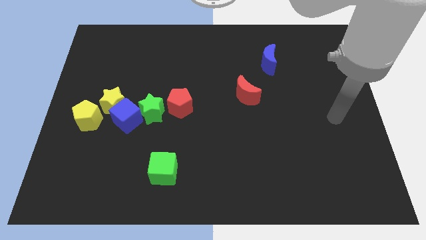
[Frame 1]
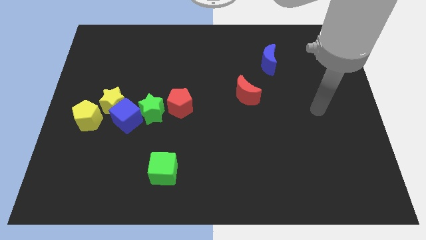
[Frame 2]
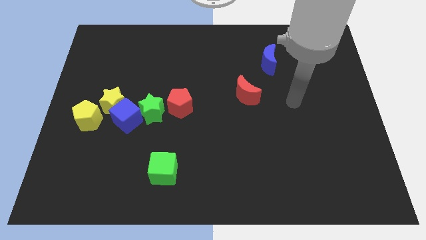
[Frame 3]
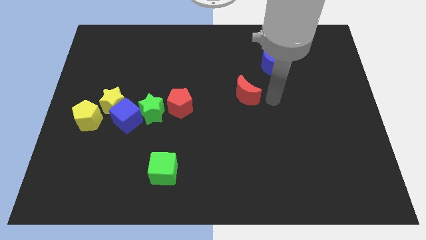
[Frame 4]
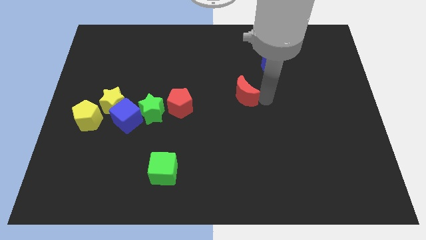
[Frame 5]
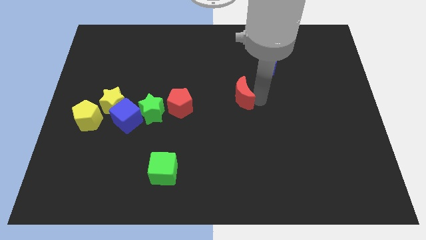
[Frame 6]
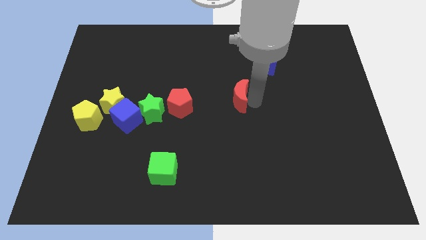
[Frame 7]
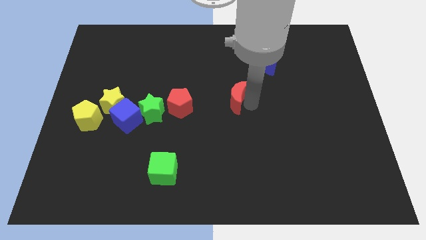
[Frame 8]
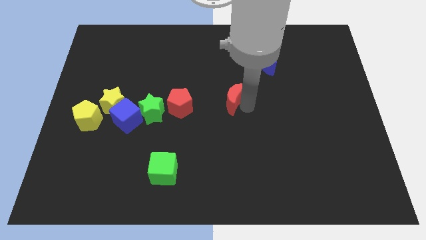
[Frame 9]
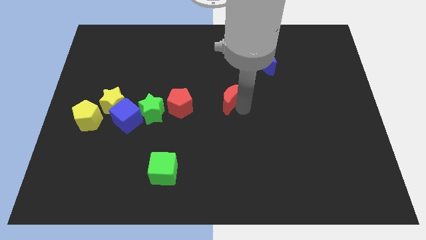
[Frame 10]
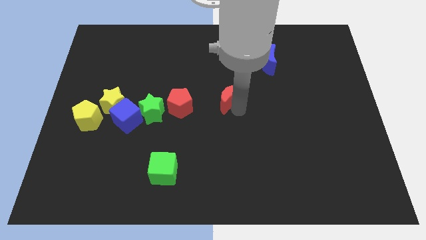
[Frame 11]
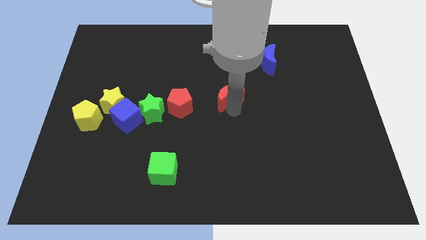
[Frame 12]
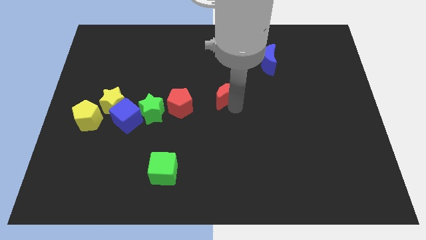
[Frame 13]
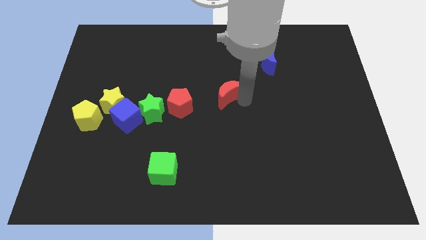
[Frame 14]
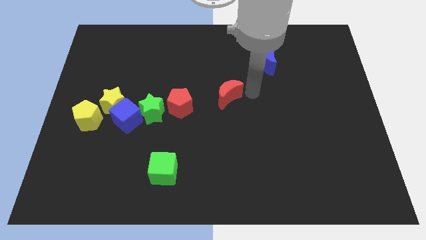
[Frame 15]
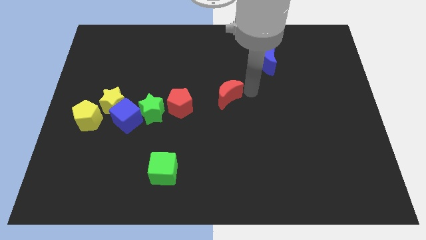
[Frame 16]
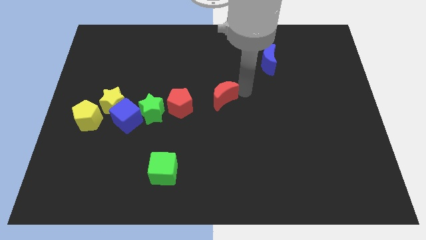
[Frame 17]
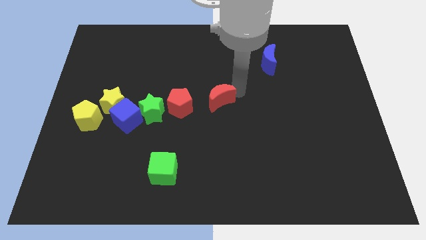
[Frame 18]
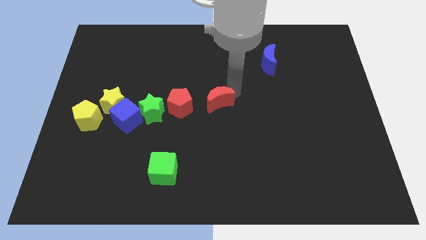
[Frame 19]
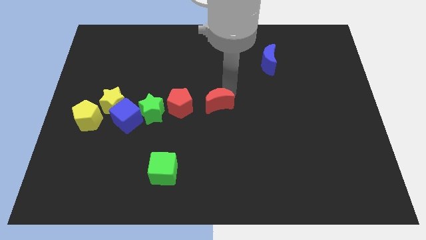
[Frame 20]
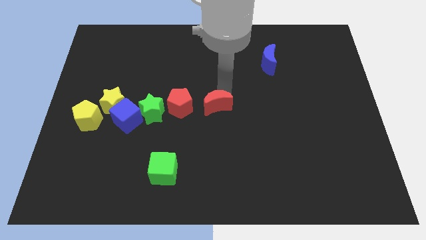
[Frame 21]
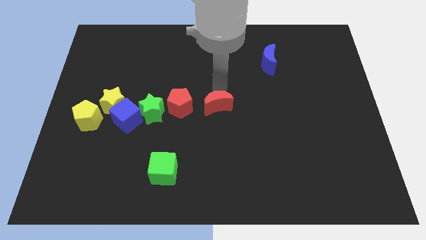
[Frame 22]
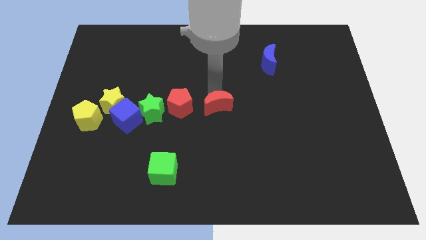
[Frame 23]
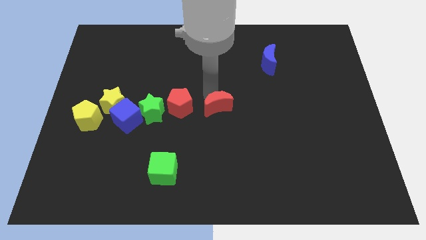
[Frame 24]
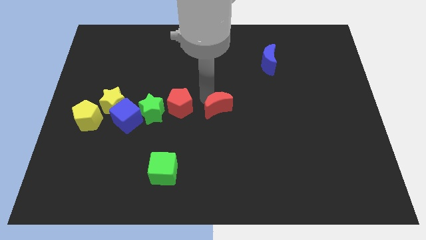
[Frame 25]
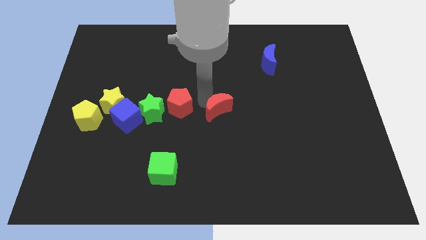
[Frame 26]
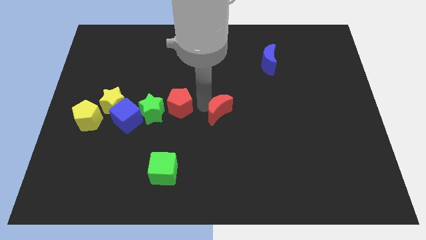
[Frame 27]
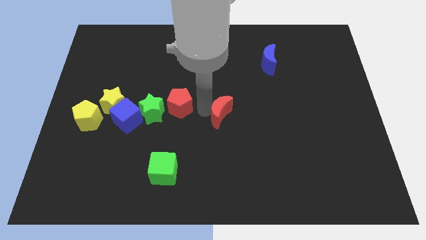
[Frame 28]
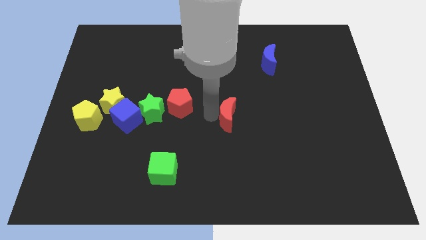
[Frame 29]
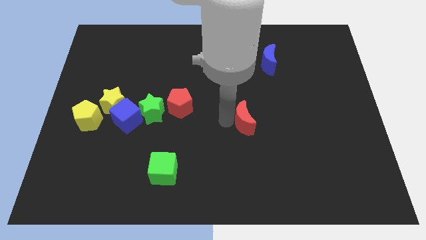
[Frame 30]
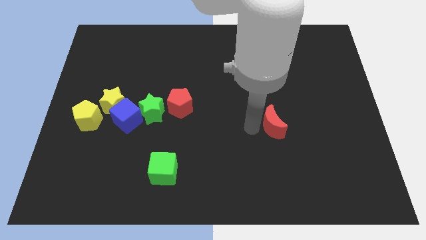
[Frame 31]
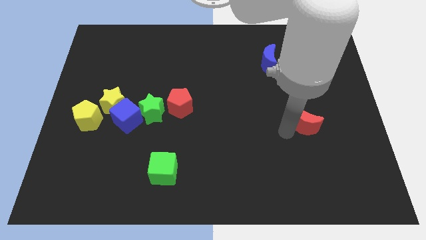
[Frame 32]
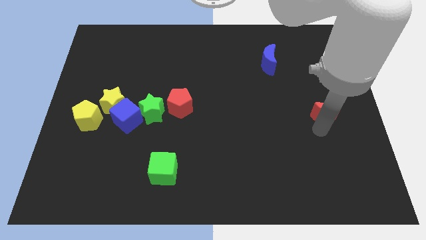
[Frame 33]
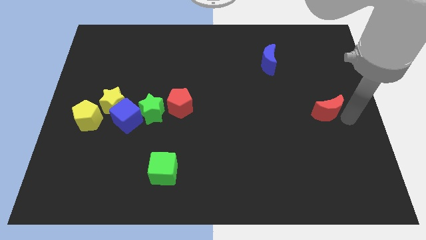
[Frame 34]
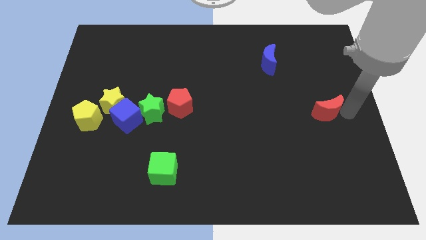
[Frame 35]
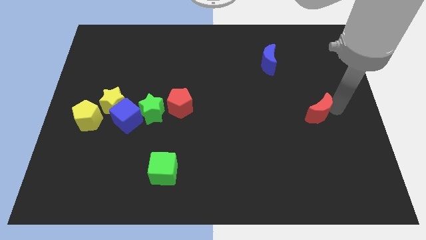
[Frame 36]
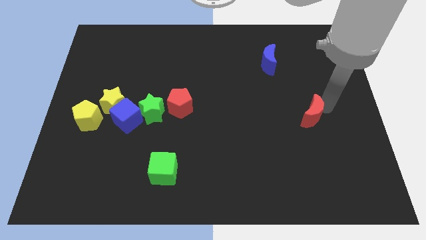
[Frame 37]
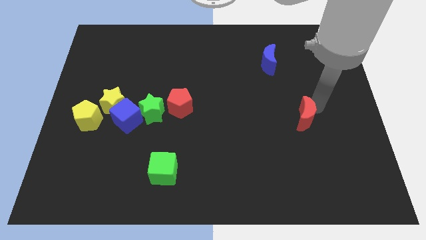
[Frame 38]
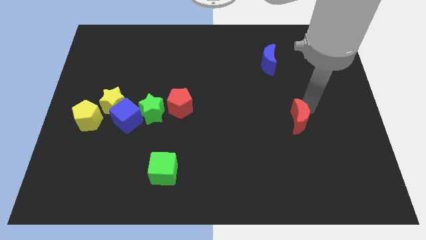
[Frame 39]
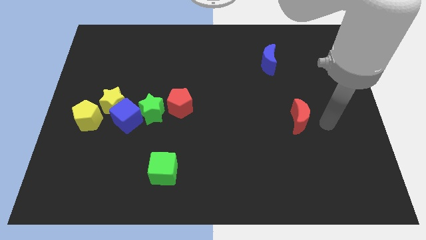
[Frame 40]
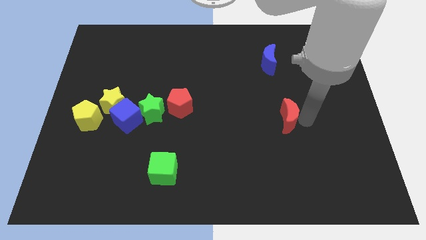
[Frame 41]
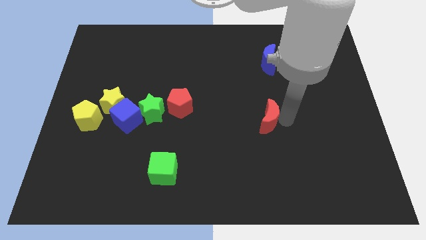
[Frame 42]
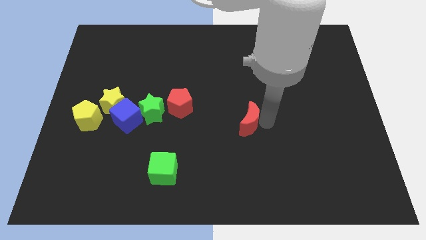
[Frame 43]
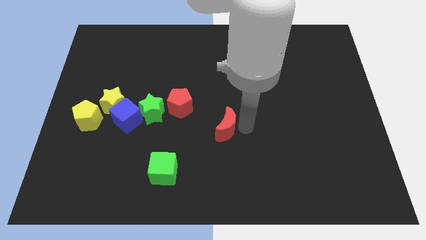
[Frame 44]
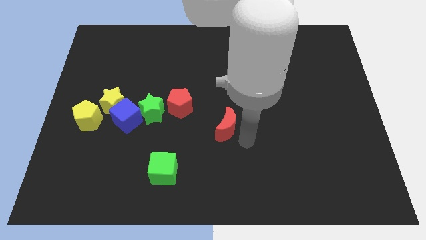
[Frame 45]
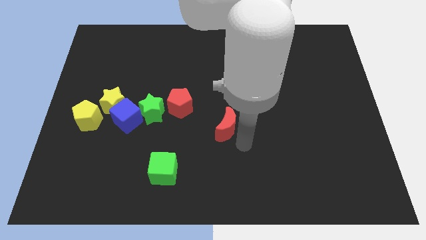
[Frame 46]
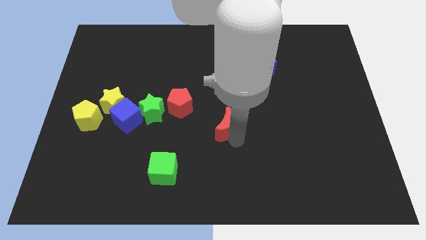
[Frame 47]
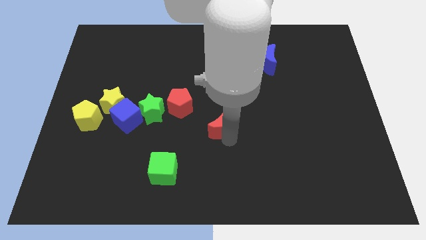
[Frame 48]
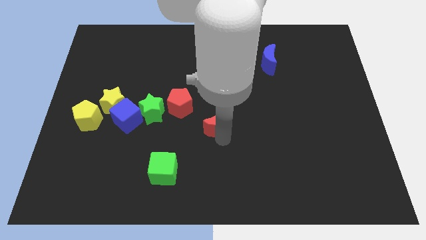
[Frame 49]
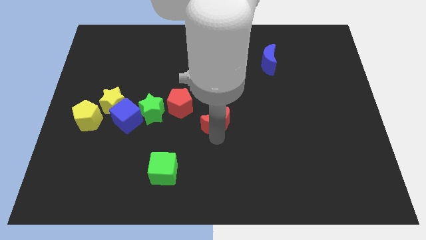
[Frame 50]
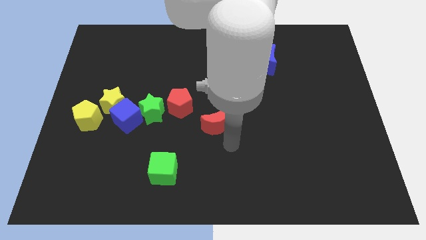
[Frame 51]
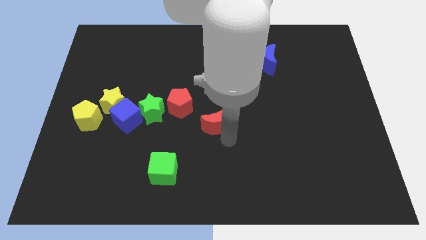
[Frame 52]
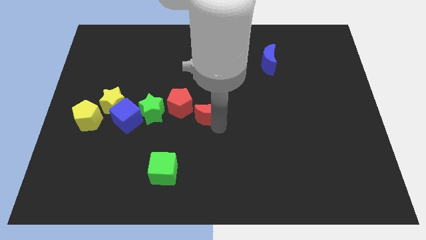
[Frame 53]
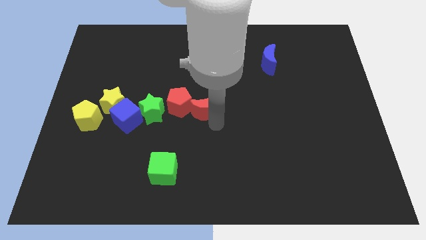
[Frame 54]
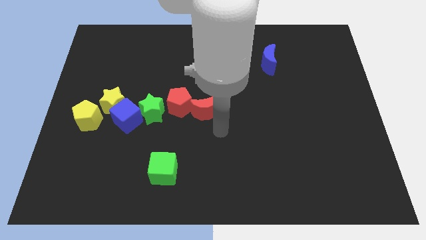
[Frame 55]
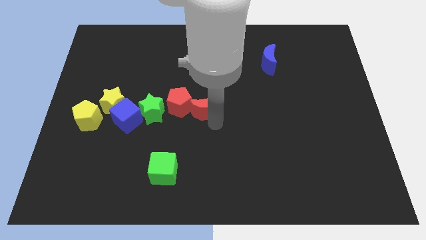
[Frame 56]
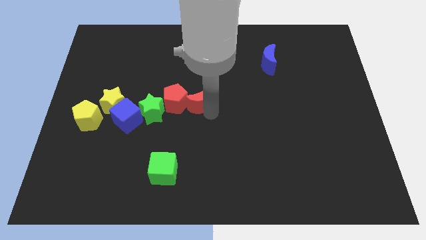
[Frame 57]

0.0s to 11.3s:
push the red moon close to the red pentagon

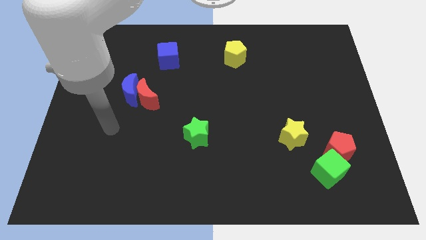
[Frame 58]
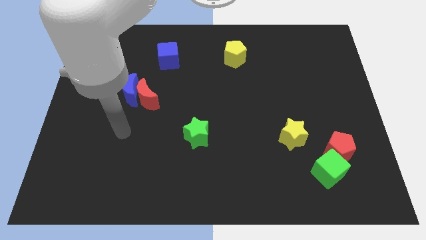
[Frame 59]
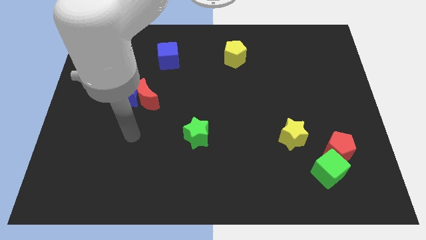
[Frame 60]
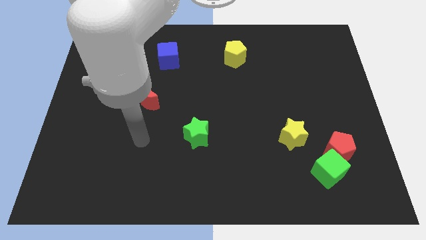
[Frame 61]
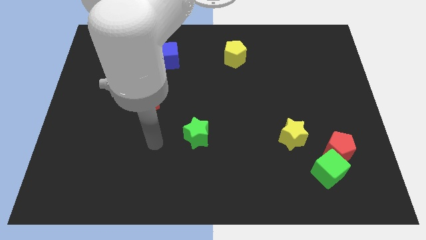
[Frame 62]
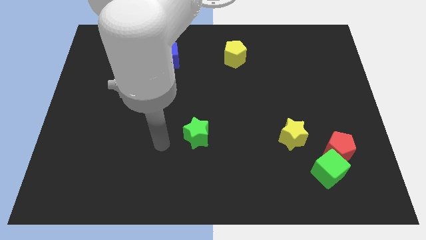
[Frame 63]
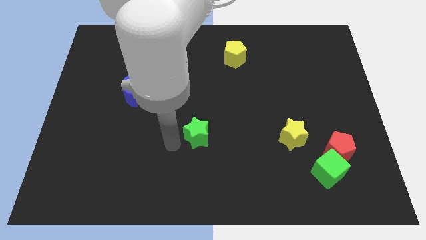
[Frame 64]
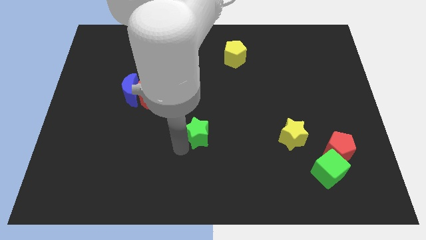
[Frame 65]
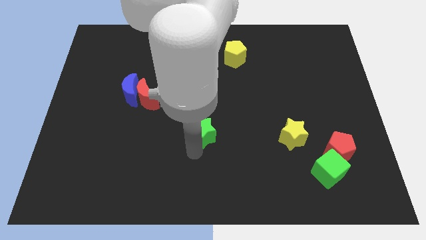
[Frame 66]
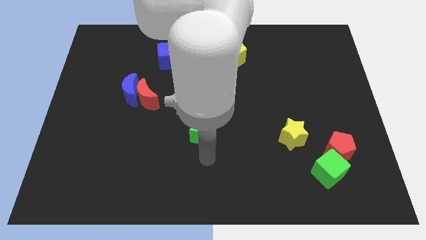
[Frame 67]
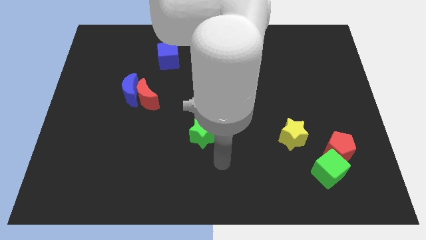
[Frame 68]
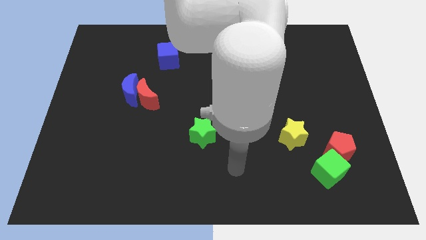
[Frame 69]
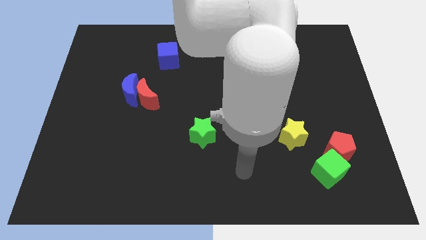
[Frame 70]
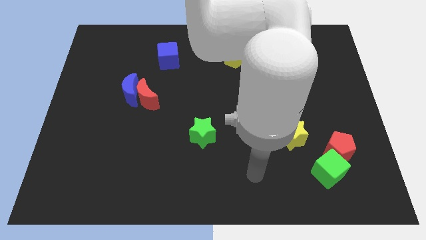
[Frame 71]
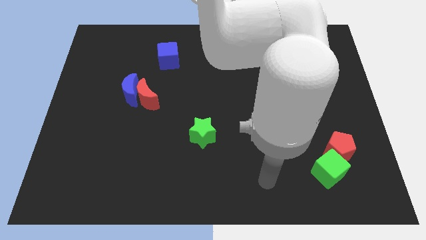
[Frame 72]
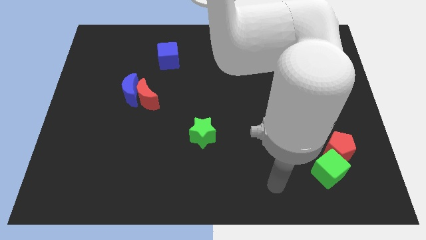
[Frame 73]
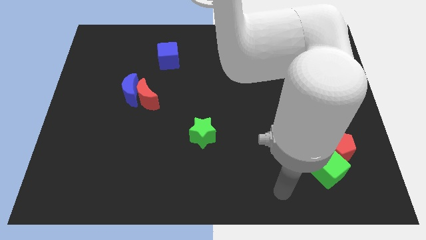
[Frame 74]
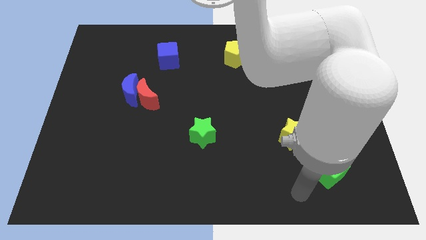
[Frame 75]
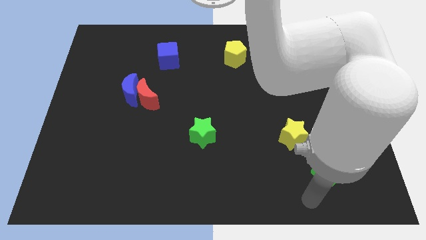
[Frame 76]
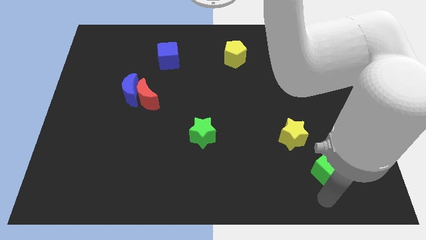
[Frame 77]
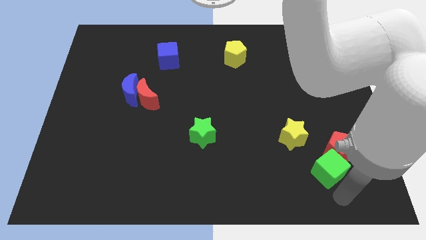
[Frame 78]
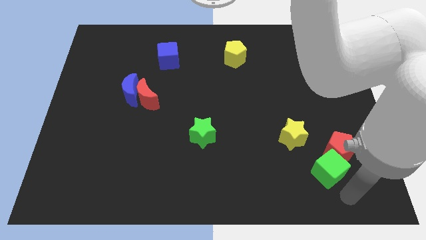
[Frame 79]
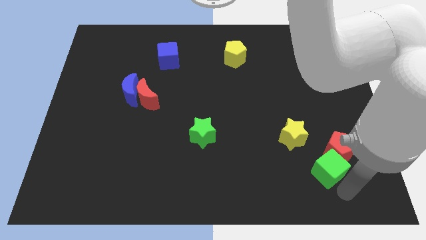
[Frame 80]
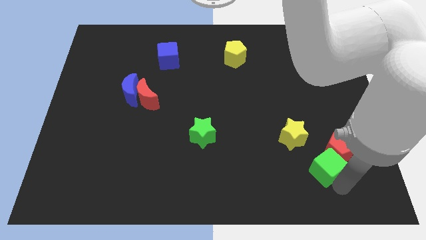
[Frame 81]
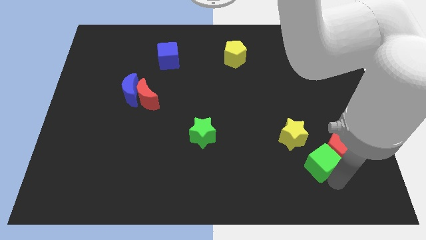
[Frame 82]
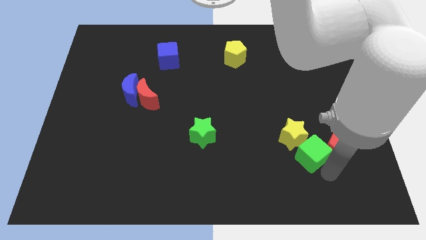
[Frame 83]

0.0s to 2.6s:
put the green cube to the yellow star
